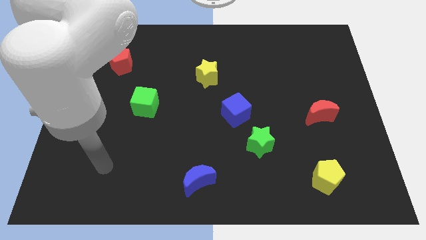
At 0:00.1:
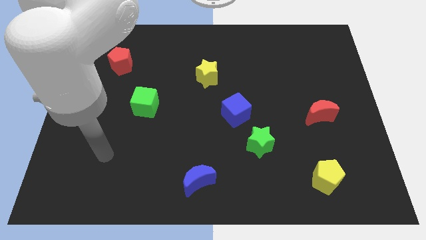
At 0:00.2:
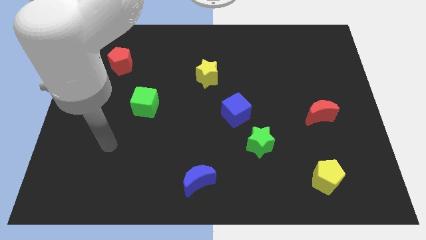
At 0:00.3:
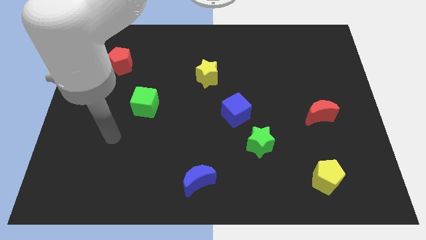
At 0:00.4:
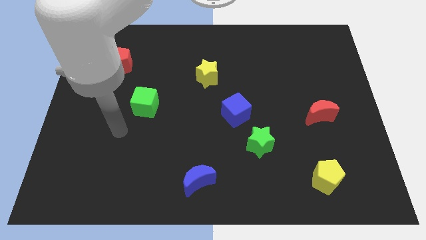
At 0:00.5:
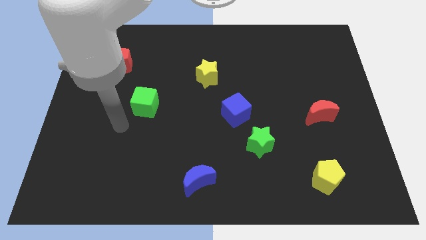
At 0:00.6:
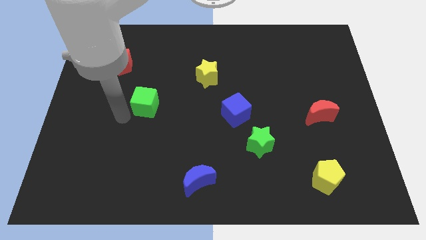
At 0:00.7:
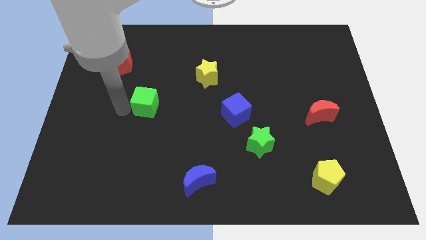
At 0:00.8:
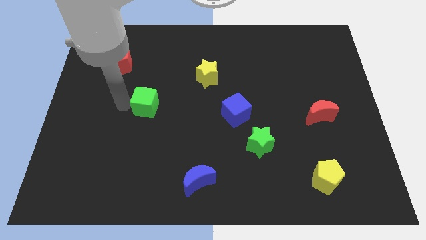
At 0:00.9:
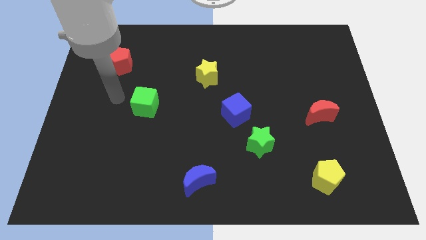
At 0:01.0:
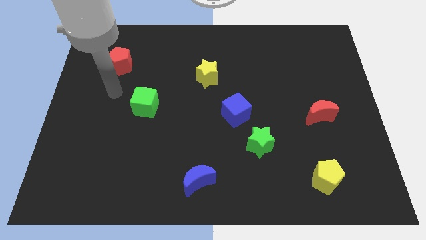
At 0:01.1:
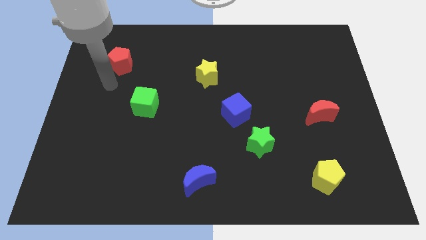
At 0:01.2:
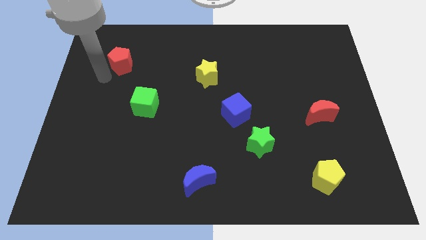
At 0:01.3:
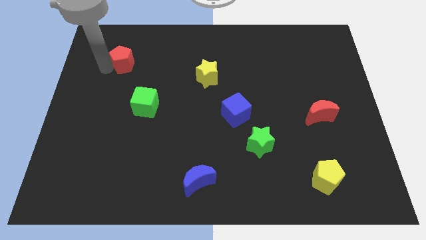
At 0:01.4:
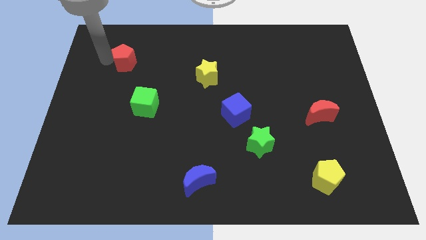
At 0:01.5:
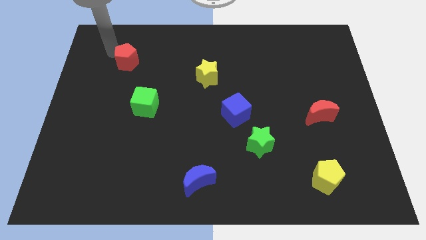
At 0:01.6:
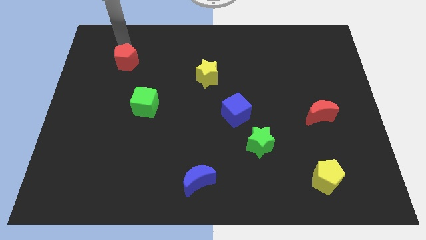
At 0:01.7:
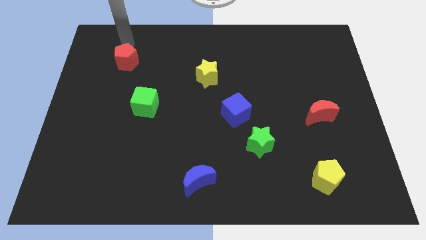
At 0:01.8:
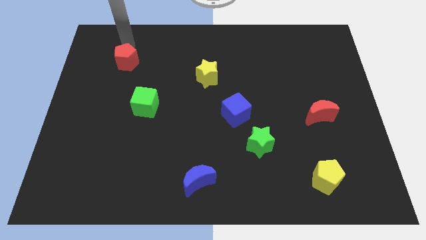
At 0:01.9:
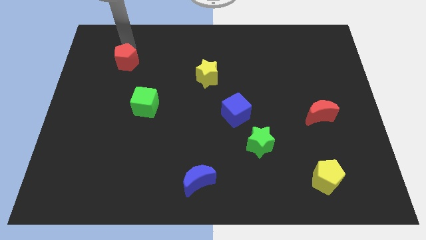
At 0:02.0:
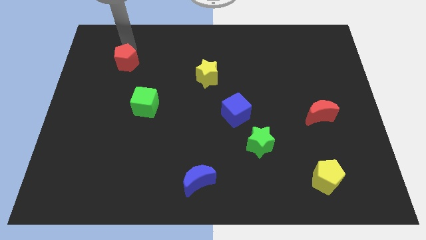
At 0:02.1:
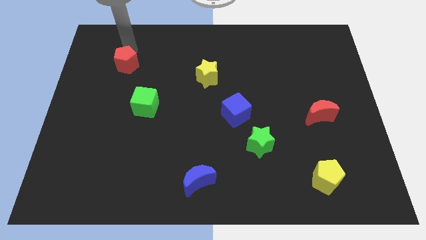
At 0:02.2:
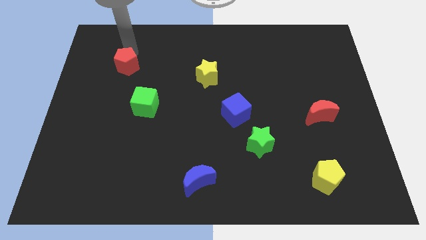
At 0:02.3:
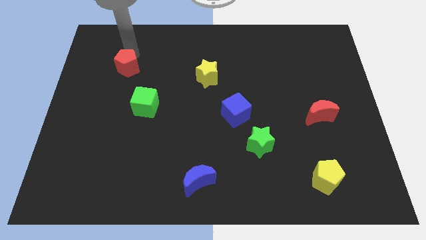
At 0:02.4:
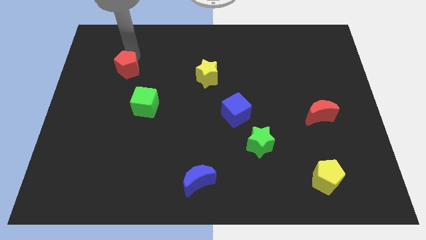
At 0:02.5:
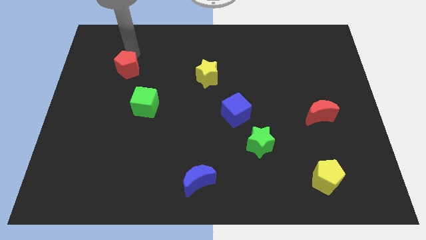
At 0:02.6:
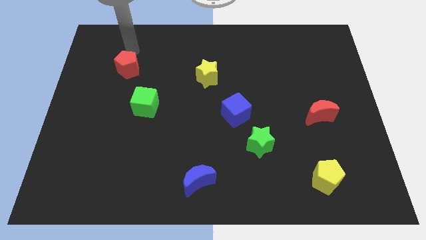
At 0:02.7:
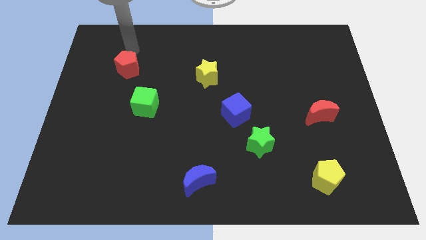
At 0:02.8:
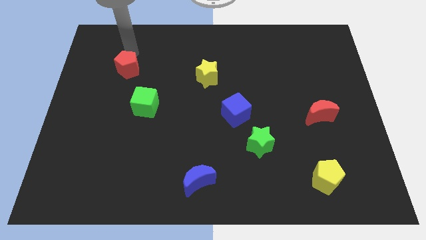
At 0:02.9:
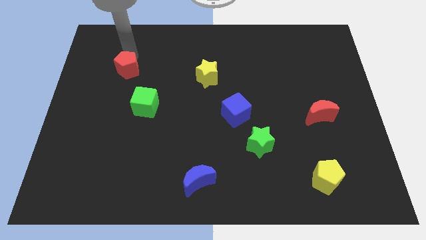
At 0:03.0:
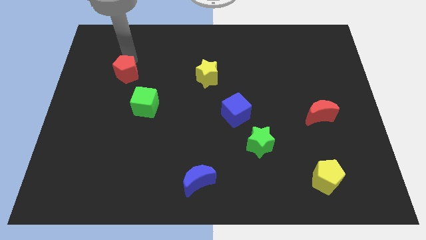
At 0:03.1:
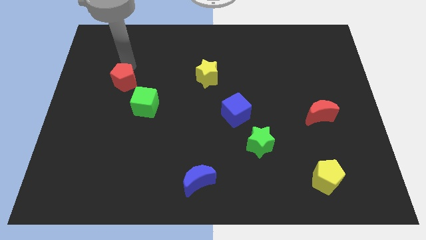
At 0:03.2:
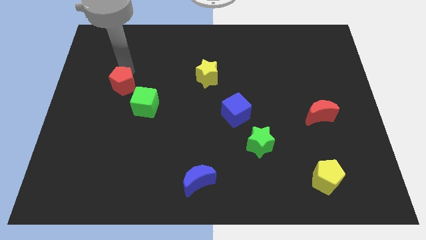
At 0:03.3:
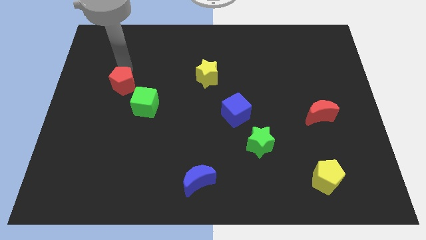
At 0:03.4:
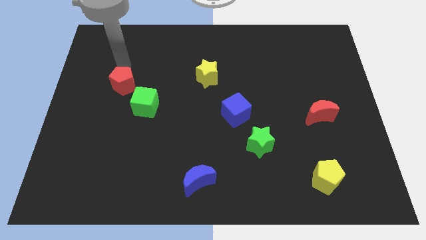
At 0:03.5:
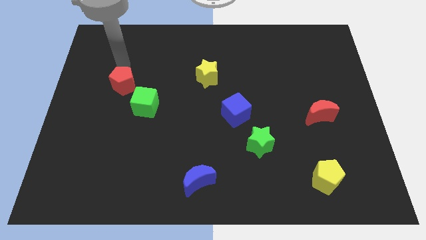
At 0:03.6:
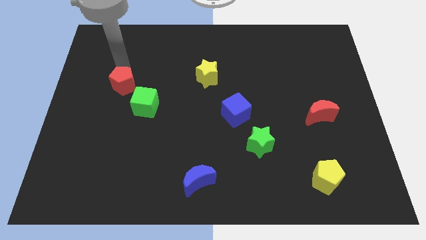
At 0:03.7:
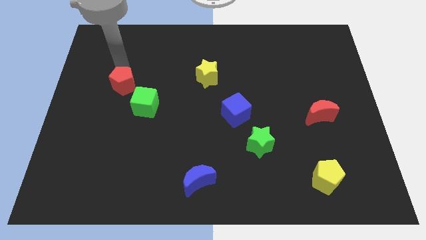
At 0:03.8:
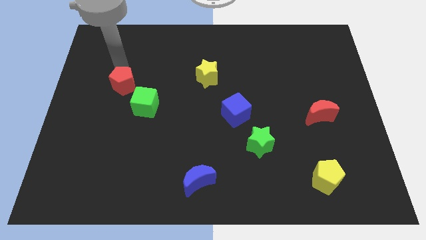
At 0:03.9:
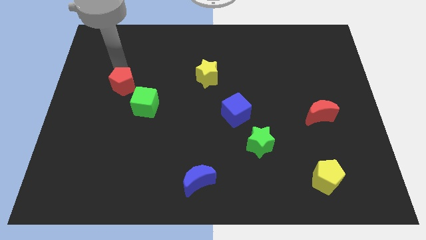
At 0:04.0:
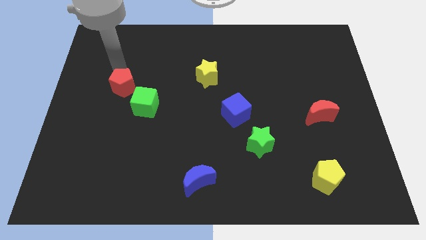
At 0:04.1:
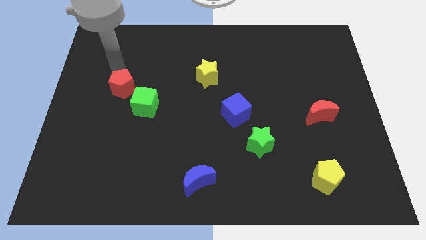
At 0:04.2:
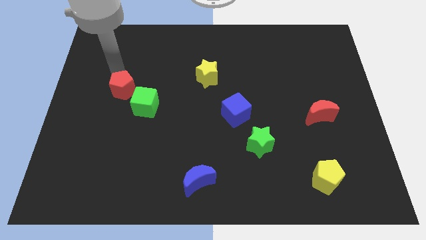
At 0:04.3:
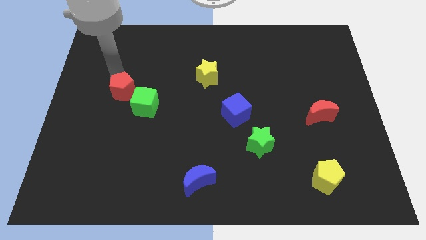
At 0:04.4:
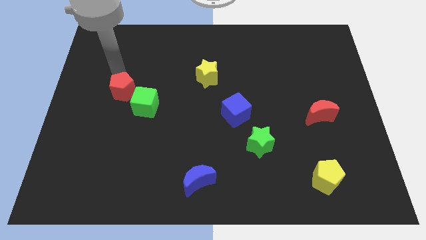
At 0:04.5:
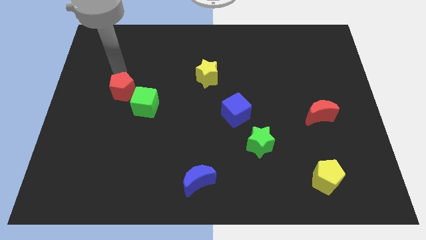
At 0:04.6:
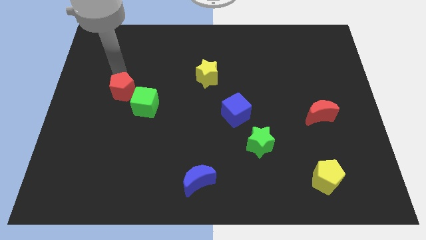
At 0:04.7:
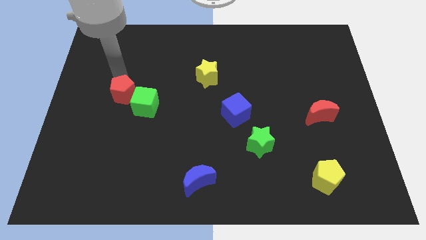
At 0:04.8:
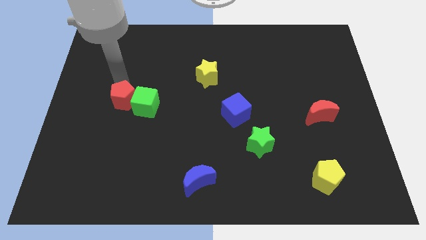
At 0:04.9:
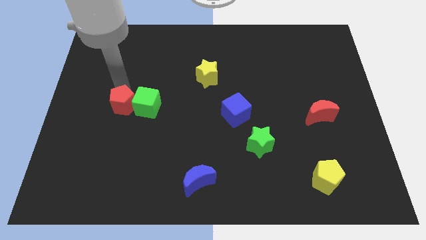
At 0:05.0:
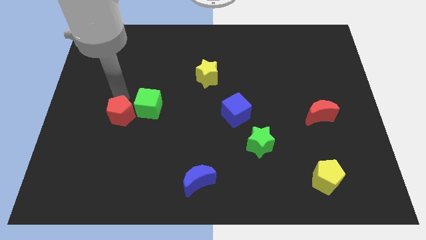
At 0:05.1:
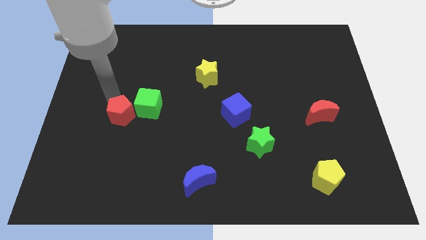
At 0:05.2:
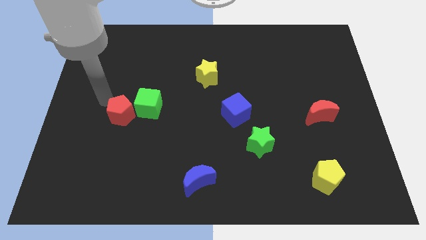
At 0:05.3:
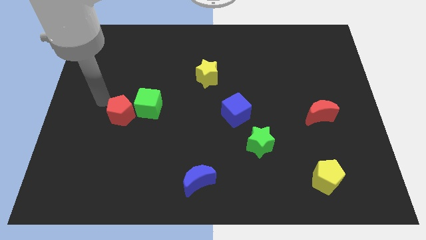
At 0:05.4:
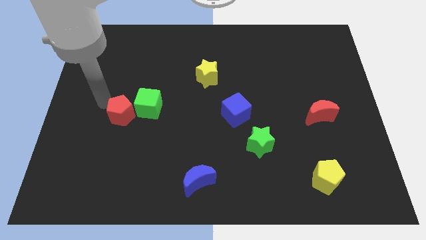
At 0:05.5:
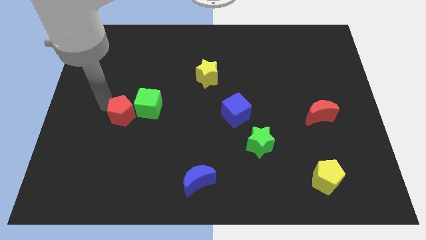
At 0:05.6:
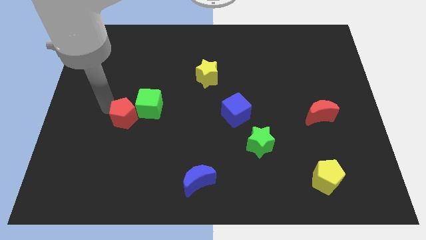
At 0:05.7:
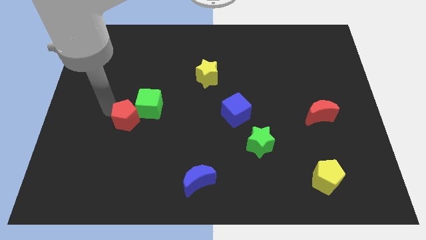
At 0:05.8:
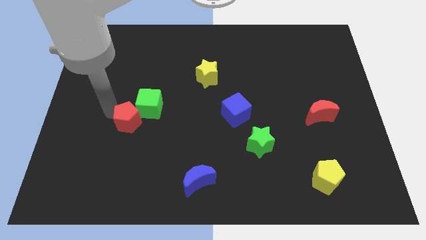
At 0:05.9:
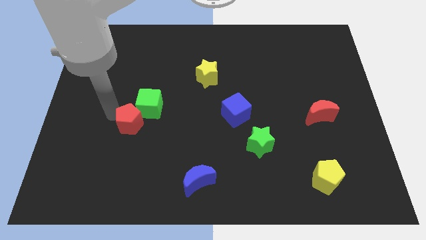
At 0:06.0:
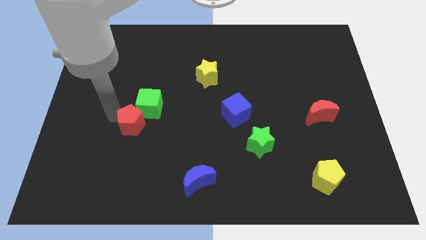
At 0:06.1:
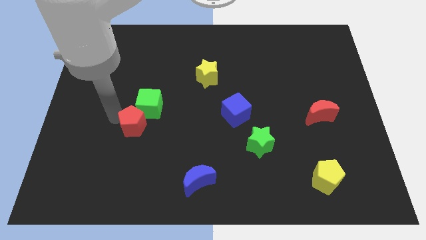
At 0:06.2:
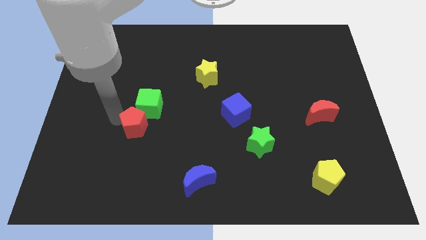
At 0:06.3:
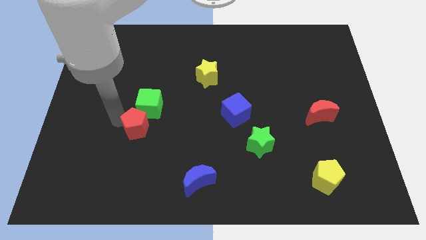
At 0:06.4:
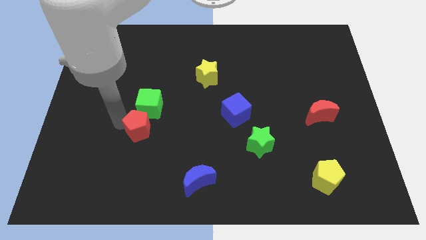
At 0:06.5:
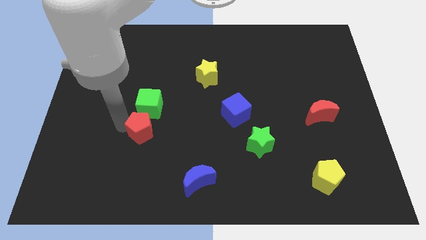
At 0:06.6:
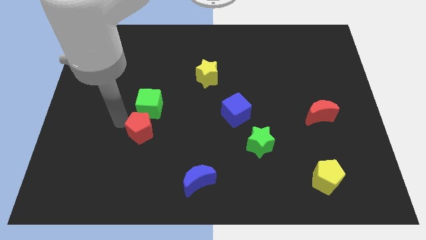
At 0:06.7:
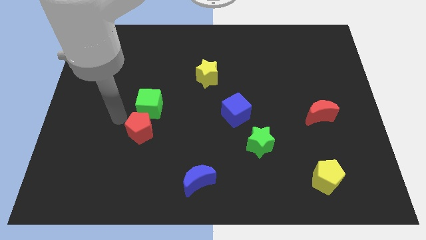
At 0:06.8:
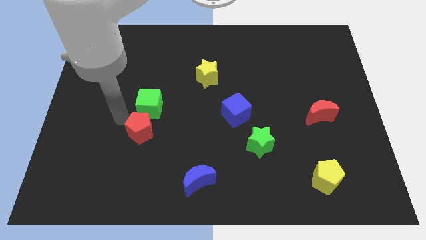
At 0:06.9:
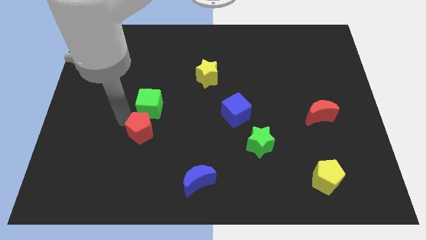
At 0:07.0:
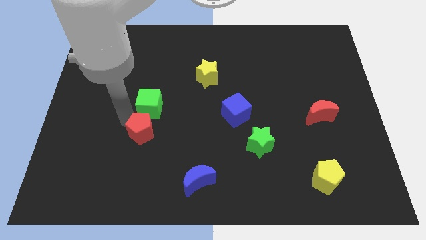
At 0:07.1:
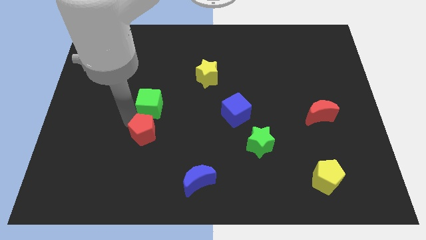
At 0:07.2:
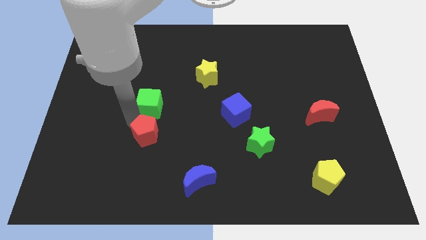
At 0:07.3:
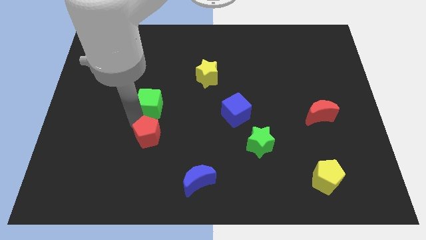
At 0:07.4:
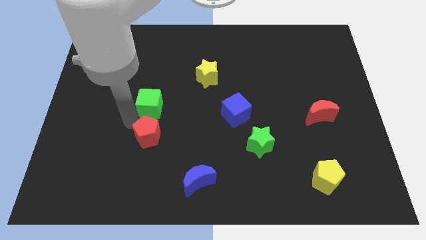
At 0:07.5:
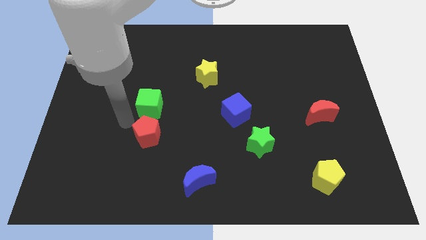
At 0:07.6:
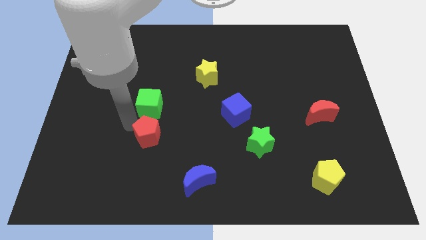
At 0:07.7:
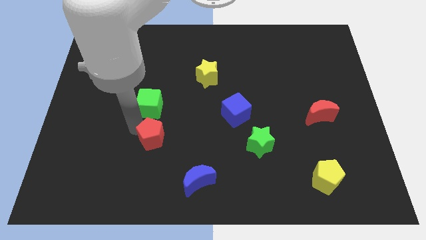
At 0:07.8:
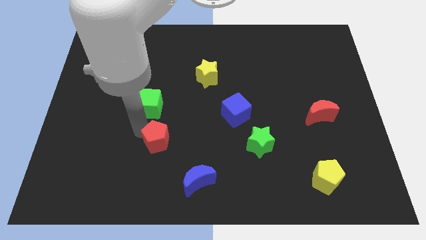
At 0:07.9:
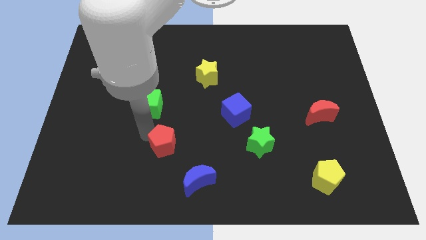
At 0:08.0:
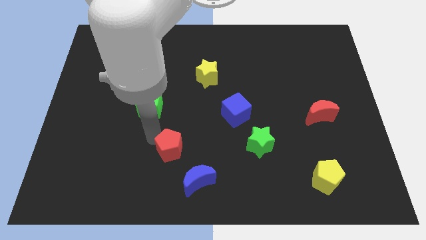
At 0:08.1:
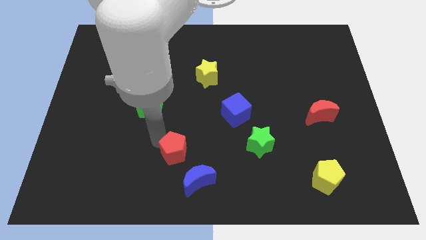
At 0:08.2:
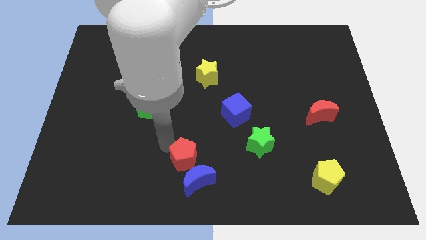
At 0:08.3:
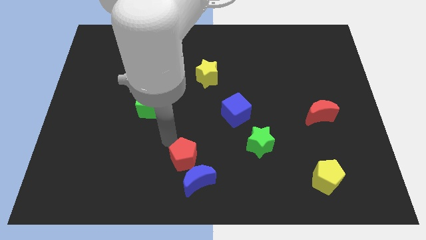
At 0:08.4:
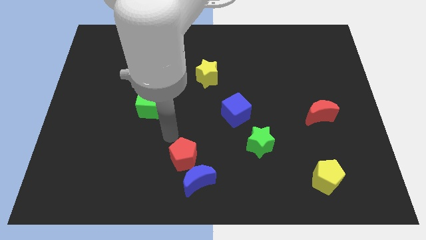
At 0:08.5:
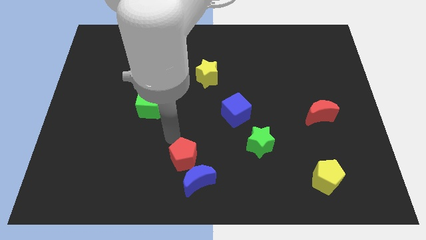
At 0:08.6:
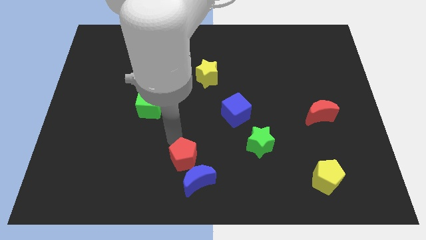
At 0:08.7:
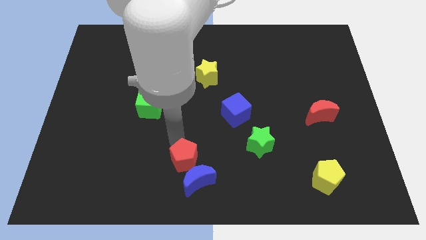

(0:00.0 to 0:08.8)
put the red pentagon close to the blue moon
